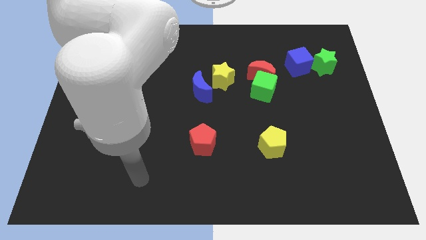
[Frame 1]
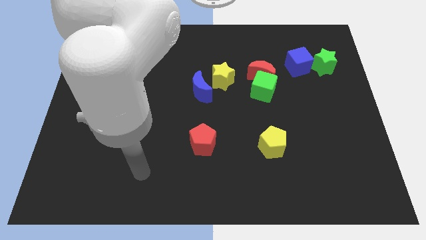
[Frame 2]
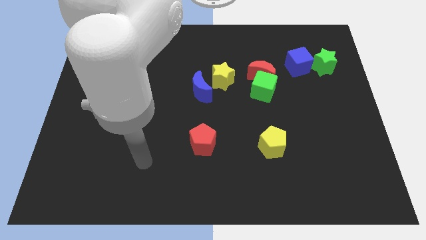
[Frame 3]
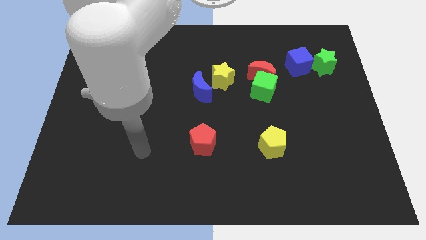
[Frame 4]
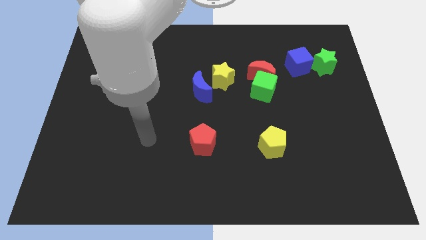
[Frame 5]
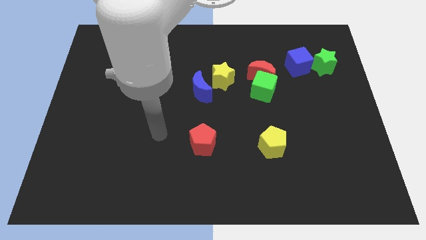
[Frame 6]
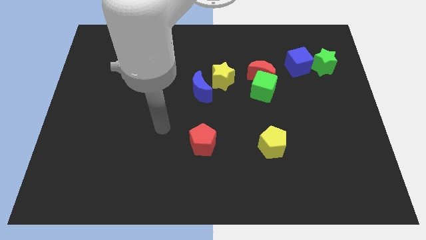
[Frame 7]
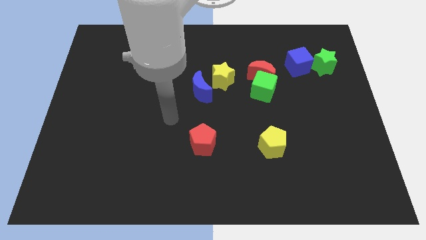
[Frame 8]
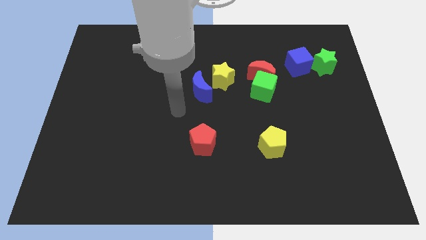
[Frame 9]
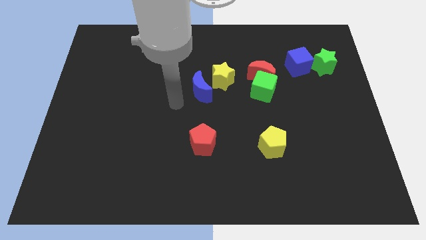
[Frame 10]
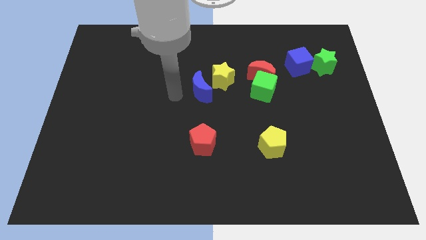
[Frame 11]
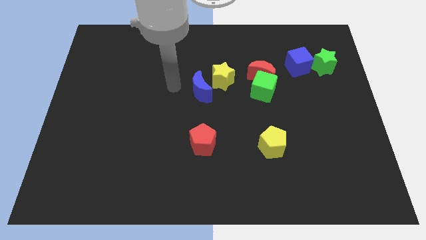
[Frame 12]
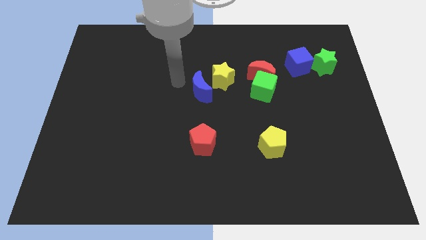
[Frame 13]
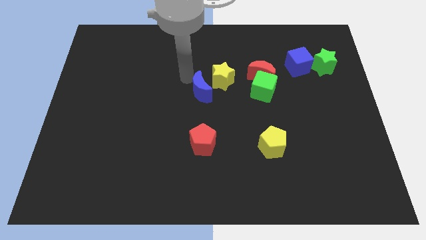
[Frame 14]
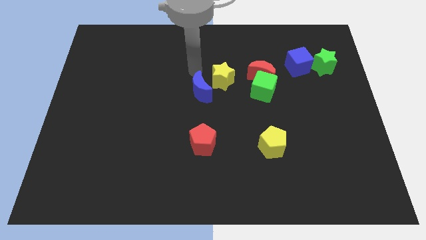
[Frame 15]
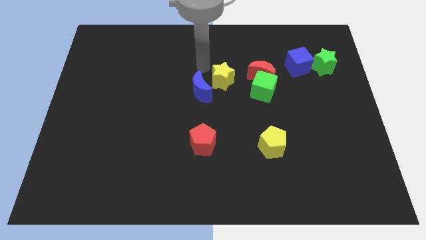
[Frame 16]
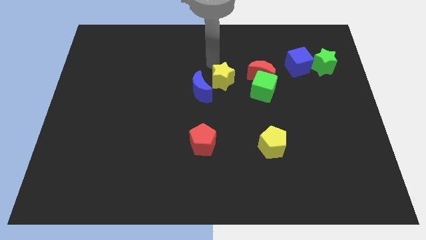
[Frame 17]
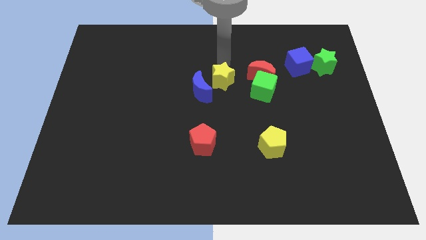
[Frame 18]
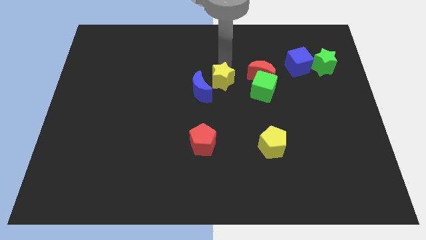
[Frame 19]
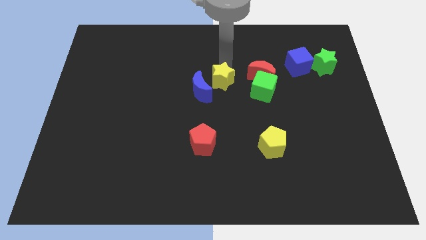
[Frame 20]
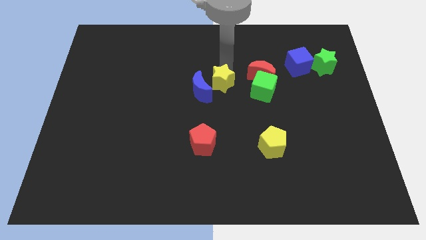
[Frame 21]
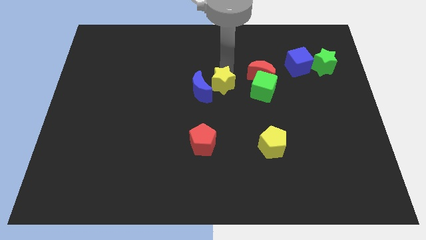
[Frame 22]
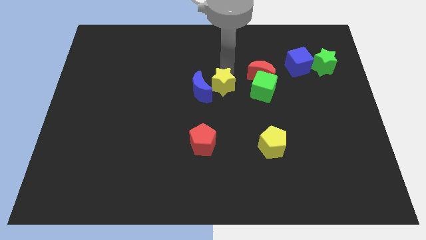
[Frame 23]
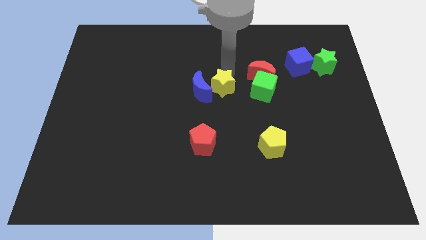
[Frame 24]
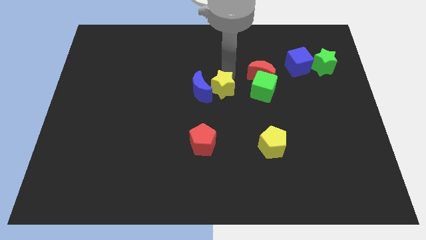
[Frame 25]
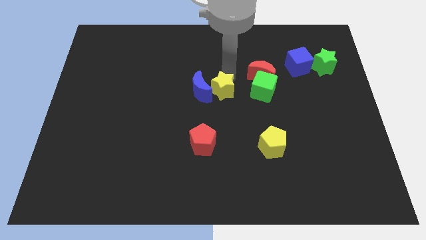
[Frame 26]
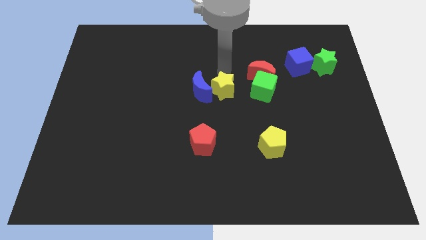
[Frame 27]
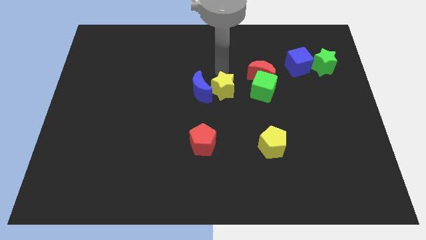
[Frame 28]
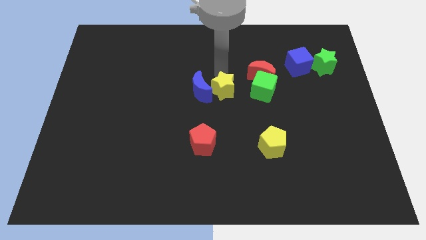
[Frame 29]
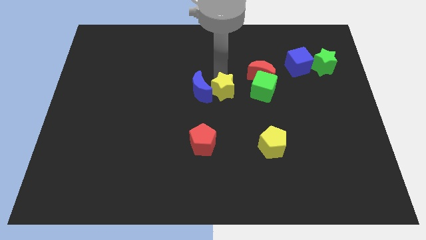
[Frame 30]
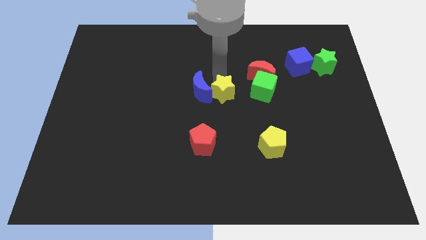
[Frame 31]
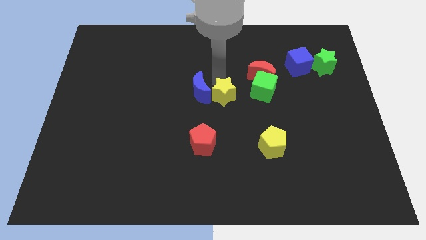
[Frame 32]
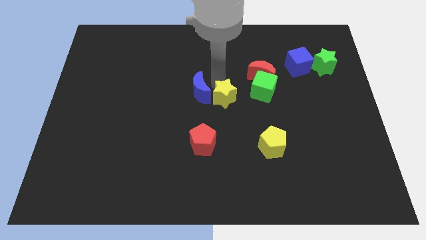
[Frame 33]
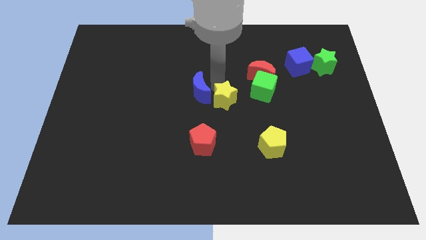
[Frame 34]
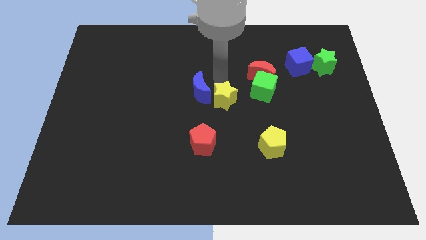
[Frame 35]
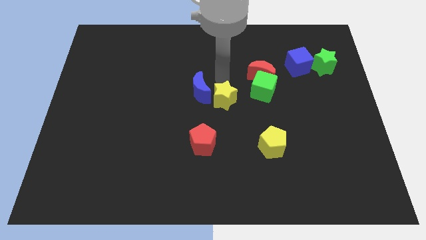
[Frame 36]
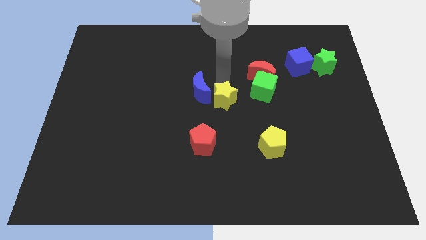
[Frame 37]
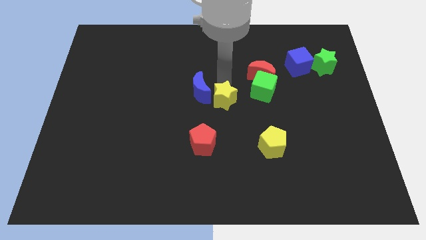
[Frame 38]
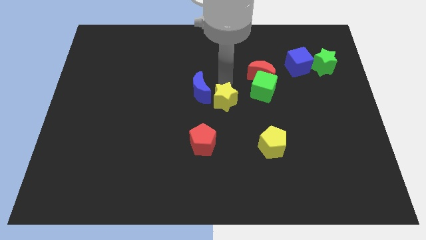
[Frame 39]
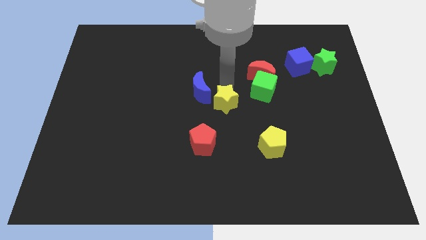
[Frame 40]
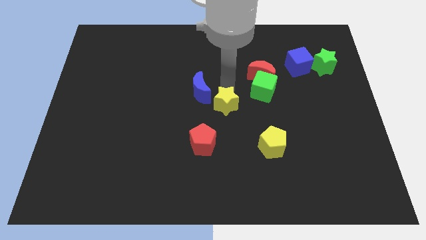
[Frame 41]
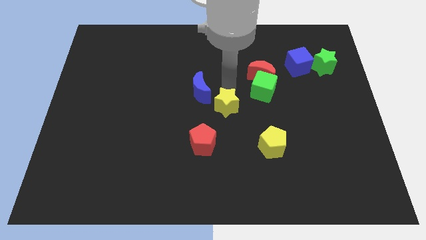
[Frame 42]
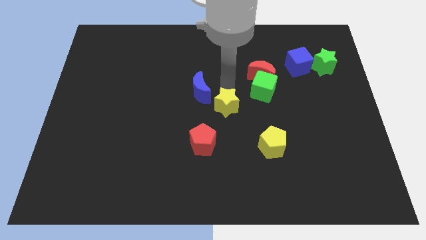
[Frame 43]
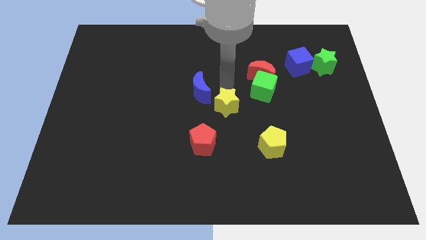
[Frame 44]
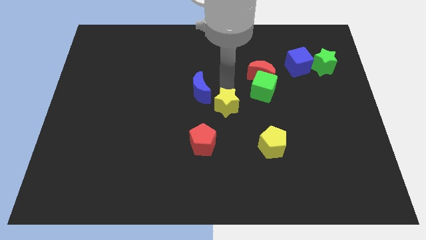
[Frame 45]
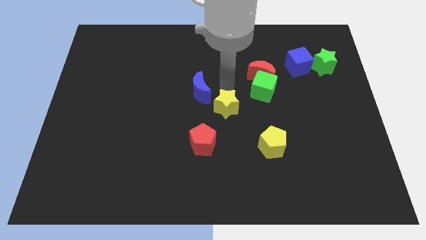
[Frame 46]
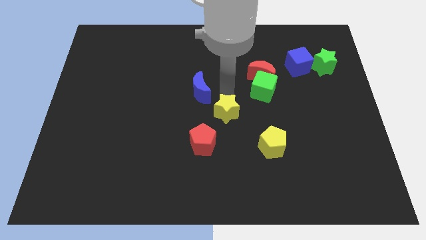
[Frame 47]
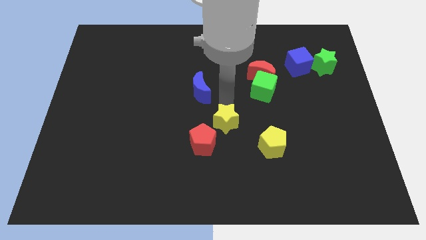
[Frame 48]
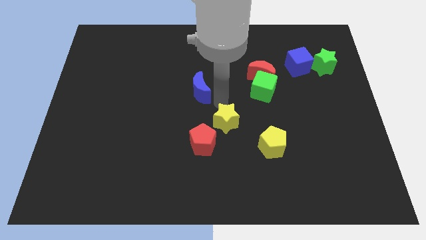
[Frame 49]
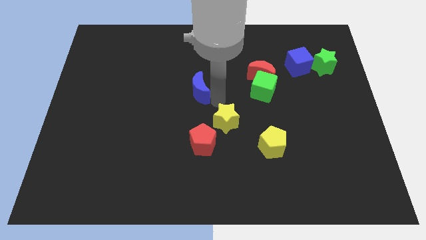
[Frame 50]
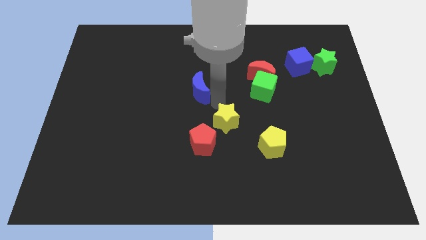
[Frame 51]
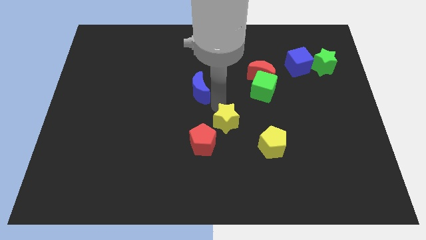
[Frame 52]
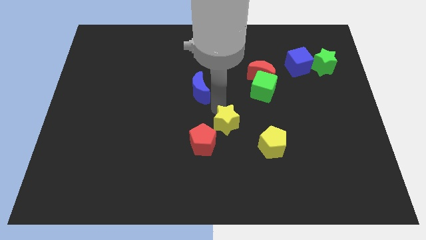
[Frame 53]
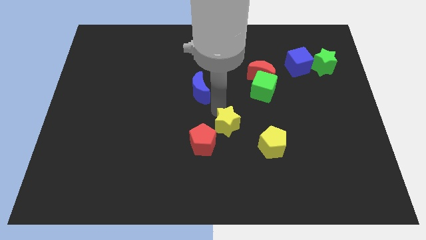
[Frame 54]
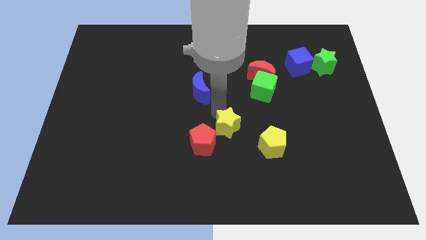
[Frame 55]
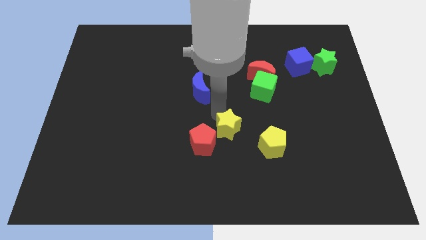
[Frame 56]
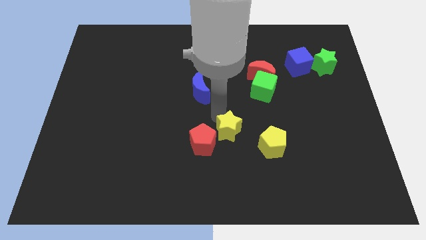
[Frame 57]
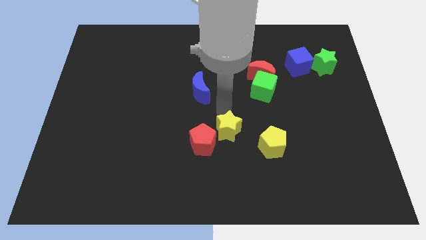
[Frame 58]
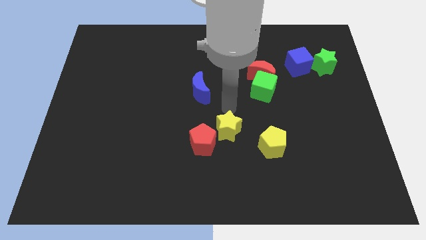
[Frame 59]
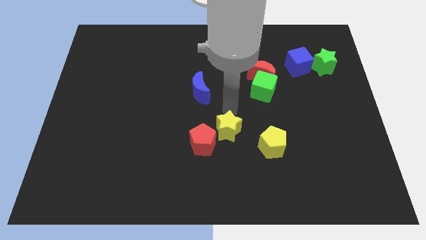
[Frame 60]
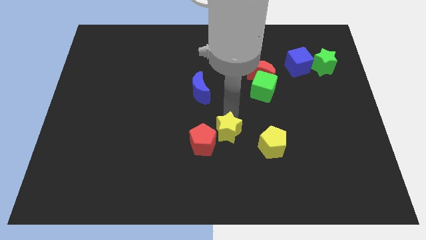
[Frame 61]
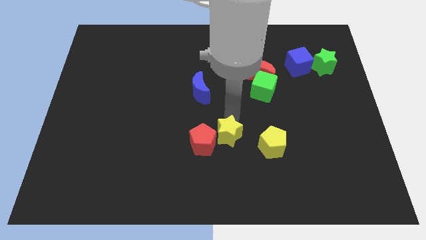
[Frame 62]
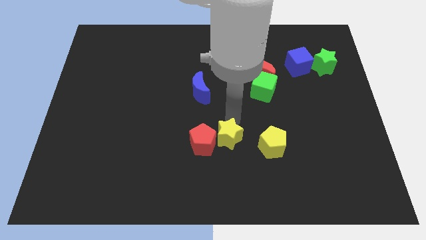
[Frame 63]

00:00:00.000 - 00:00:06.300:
move the yellow star to the bottom right of the red pentagon

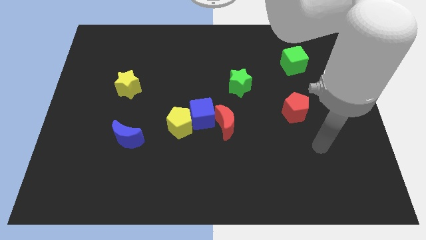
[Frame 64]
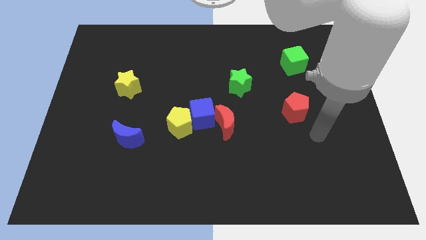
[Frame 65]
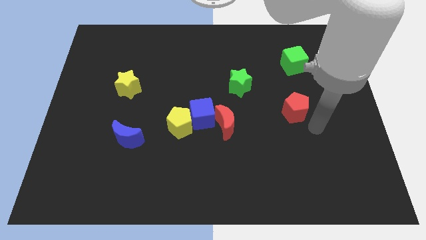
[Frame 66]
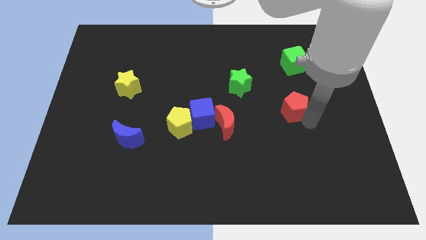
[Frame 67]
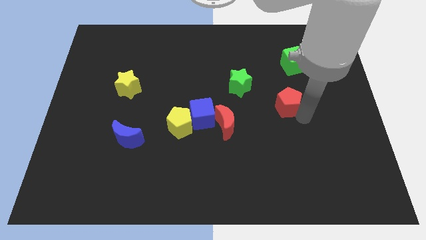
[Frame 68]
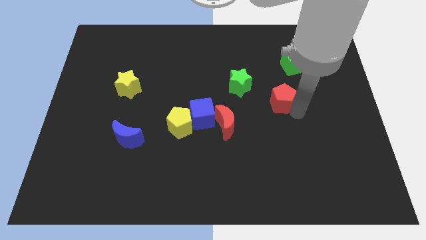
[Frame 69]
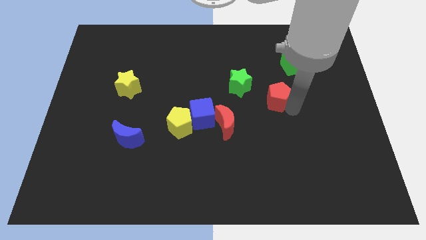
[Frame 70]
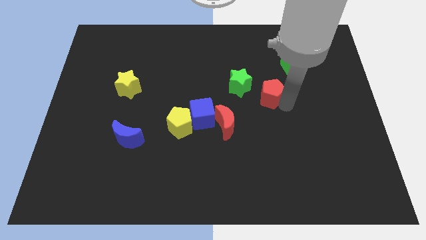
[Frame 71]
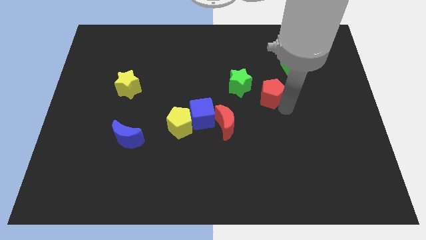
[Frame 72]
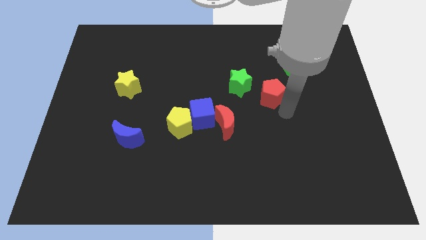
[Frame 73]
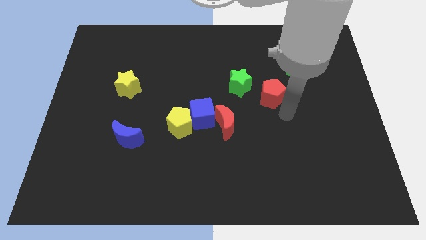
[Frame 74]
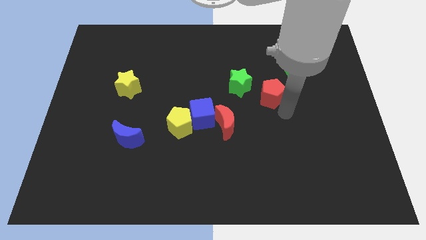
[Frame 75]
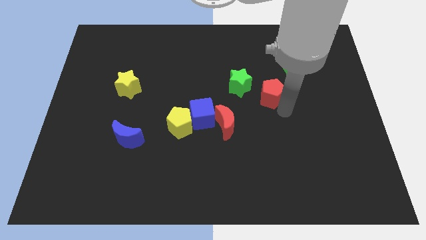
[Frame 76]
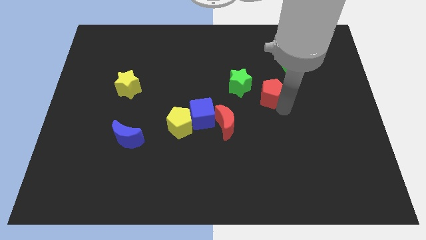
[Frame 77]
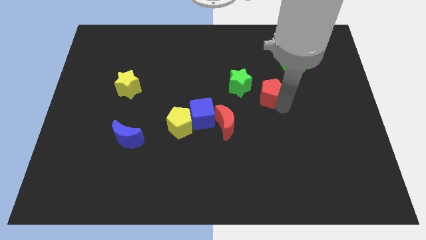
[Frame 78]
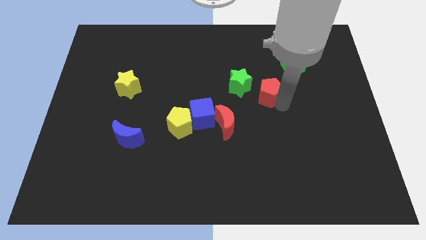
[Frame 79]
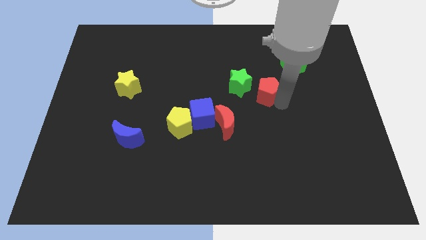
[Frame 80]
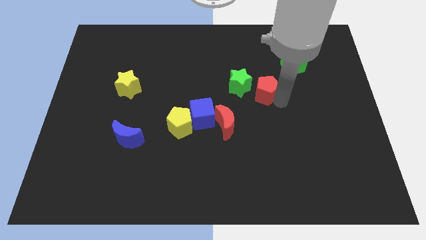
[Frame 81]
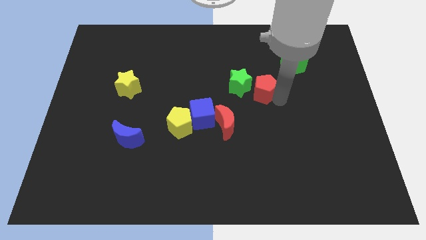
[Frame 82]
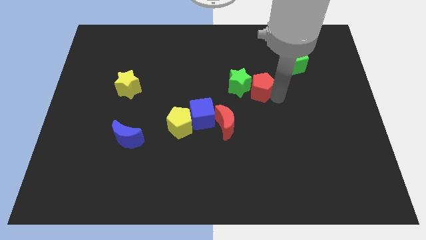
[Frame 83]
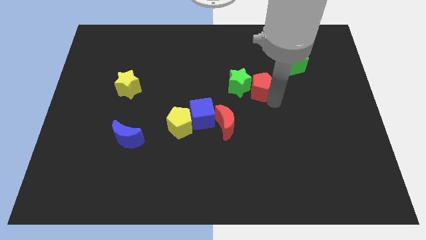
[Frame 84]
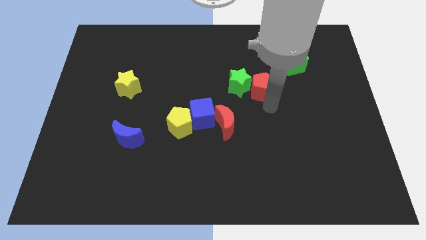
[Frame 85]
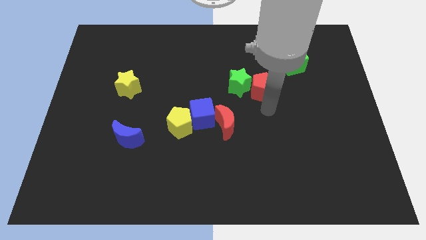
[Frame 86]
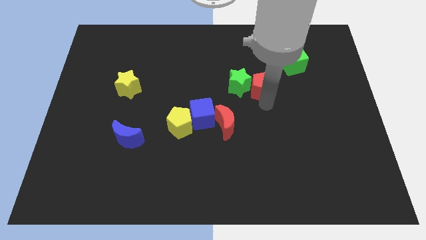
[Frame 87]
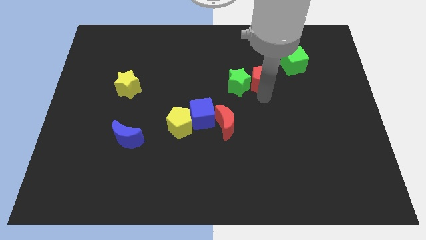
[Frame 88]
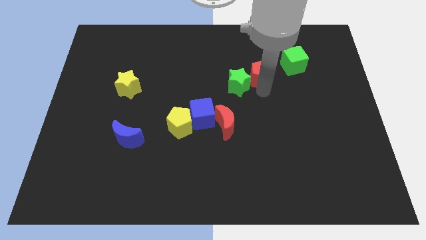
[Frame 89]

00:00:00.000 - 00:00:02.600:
put the red pentagon left of the green cube
